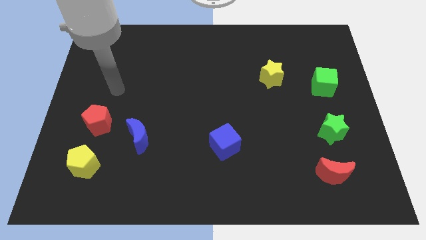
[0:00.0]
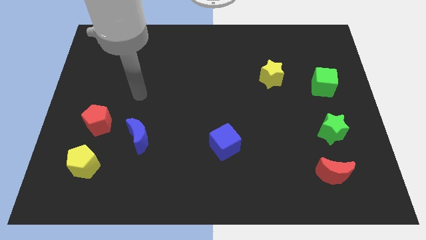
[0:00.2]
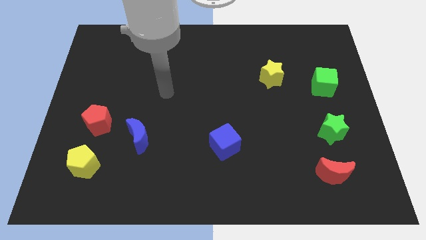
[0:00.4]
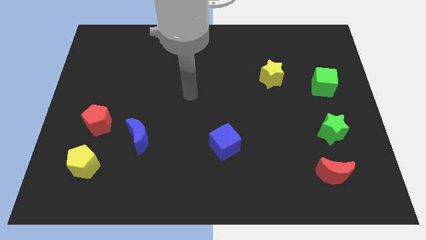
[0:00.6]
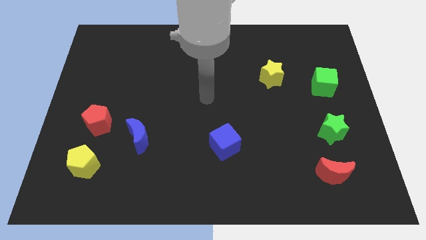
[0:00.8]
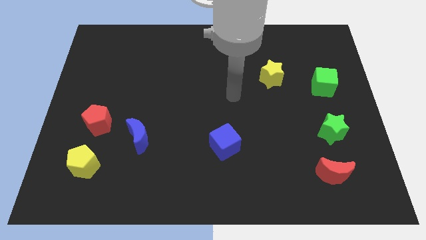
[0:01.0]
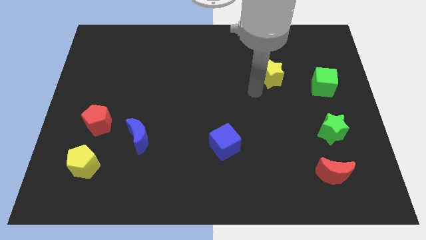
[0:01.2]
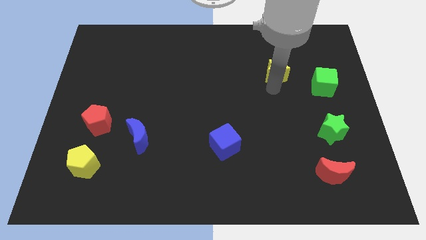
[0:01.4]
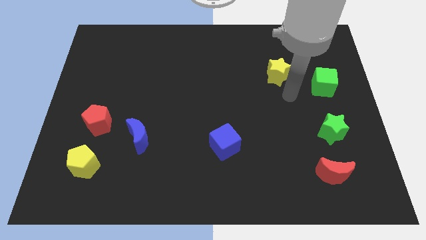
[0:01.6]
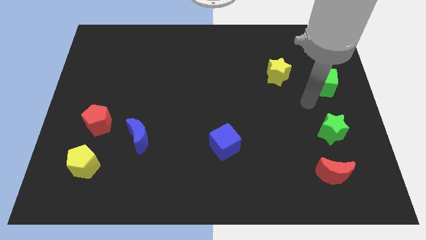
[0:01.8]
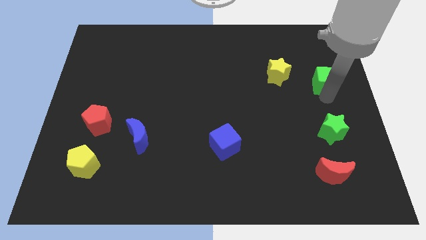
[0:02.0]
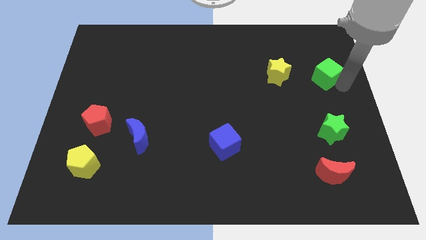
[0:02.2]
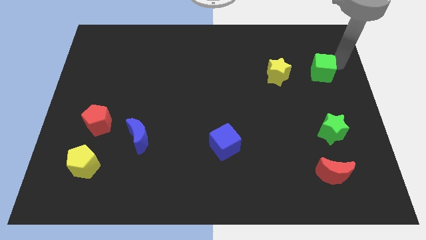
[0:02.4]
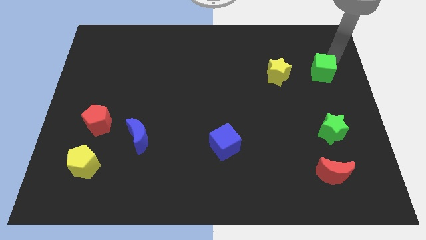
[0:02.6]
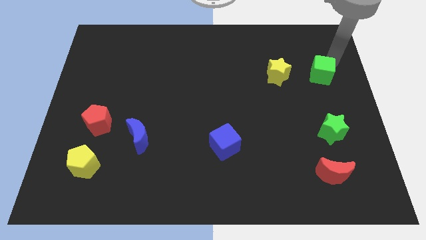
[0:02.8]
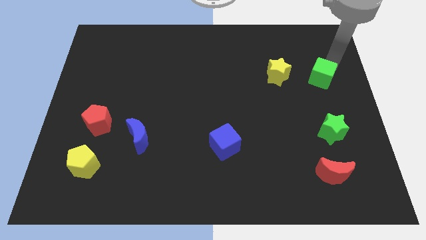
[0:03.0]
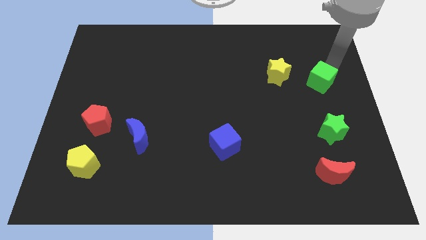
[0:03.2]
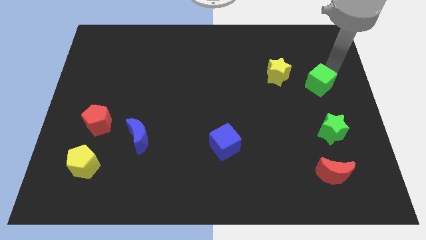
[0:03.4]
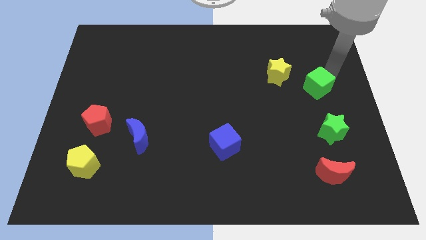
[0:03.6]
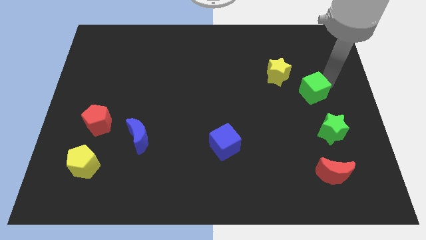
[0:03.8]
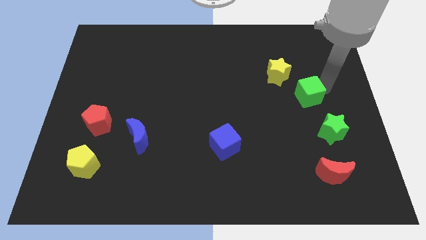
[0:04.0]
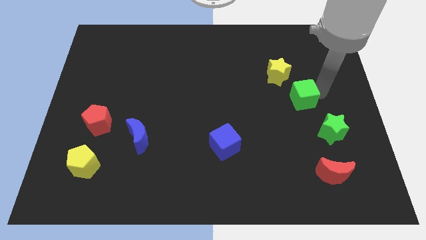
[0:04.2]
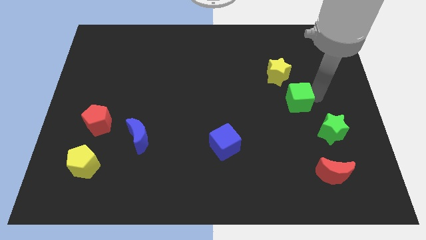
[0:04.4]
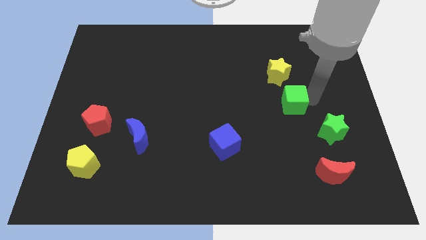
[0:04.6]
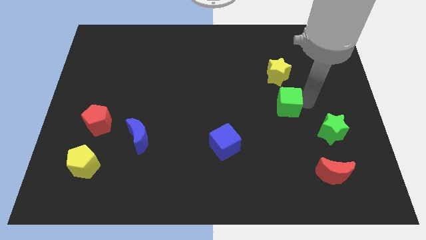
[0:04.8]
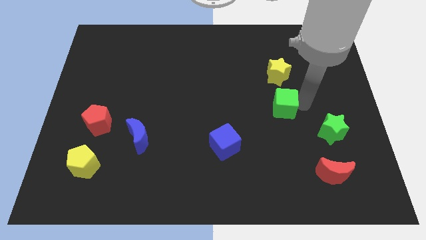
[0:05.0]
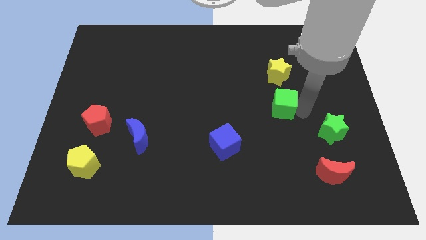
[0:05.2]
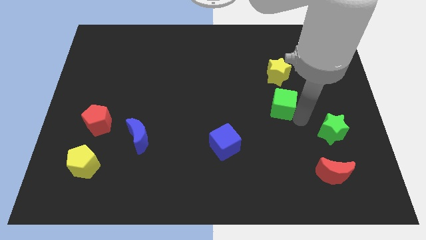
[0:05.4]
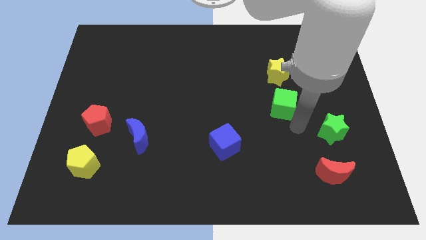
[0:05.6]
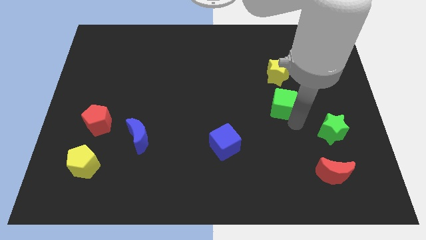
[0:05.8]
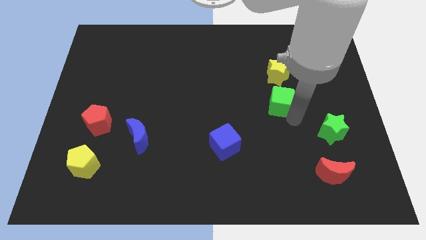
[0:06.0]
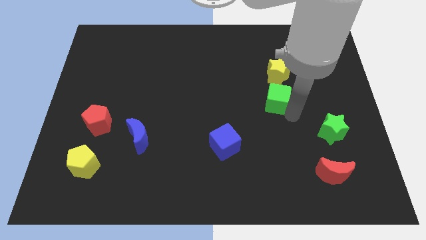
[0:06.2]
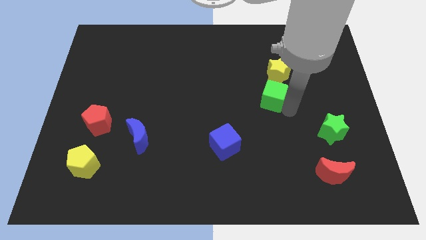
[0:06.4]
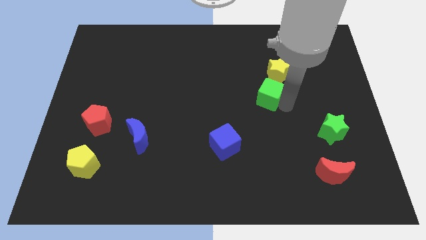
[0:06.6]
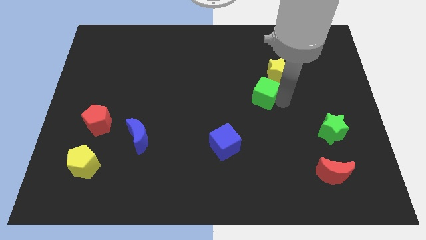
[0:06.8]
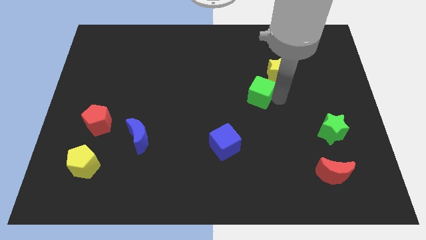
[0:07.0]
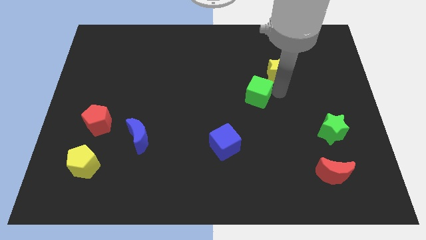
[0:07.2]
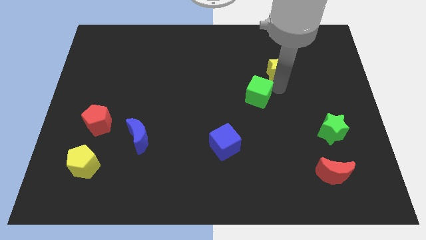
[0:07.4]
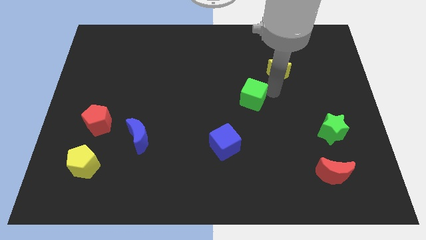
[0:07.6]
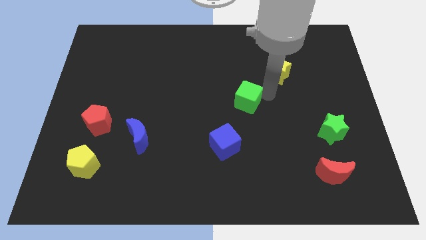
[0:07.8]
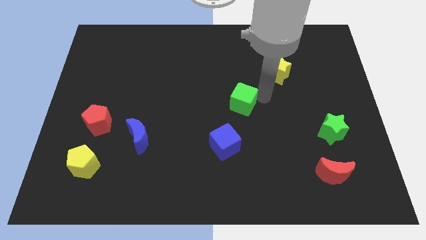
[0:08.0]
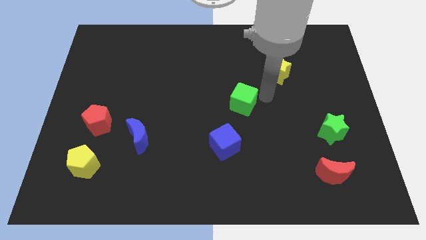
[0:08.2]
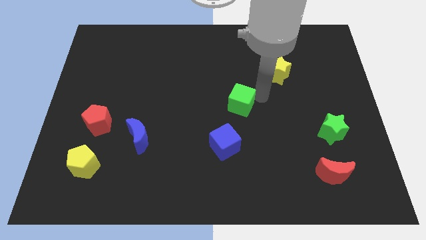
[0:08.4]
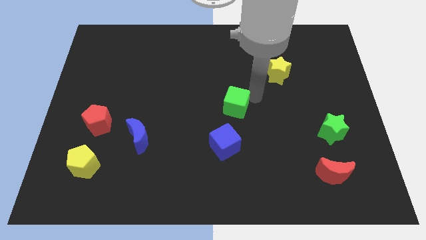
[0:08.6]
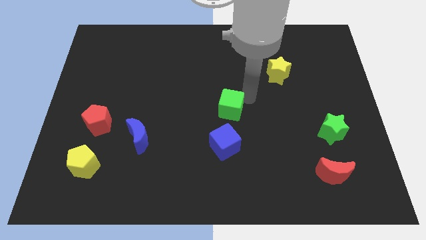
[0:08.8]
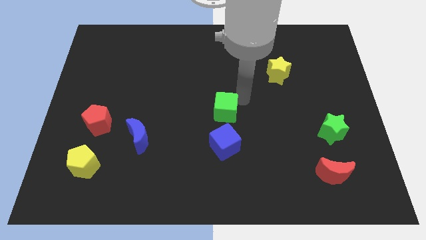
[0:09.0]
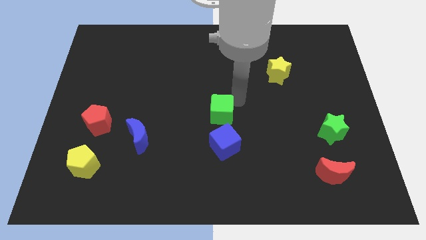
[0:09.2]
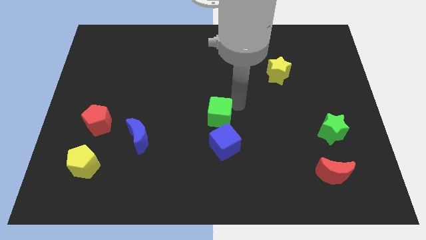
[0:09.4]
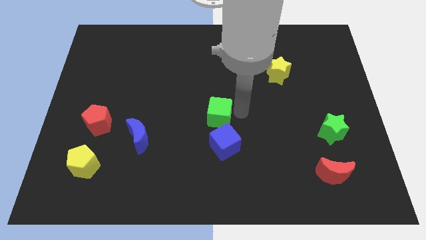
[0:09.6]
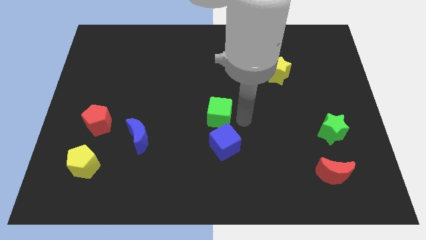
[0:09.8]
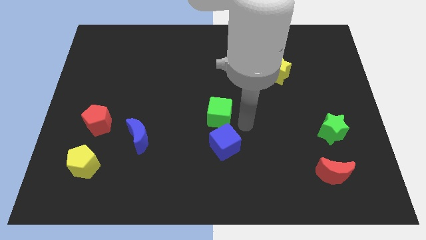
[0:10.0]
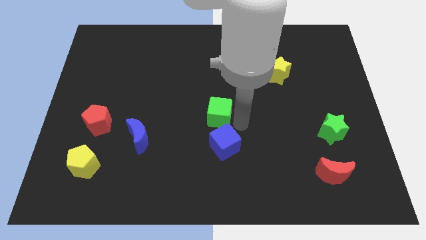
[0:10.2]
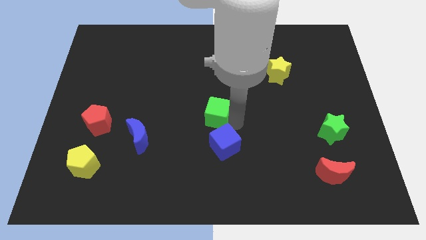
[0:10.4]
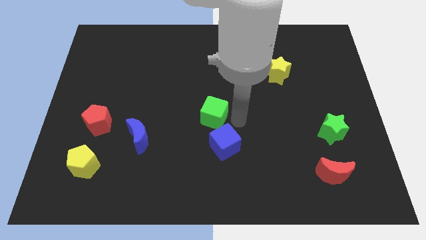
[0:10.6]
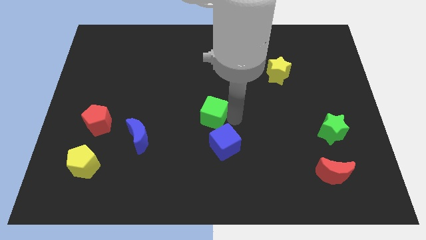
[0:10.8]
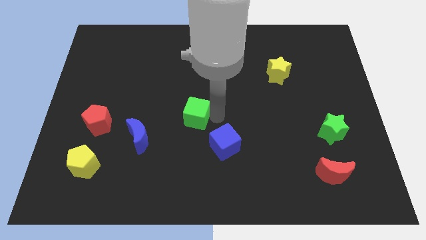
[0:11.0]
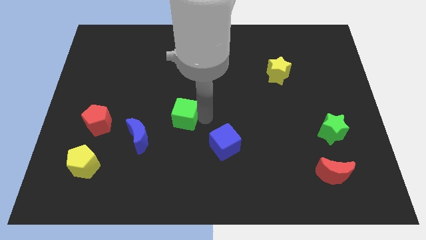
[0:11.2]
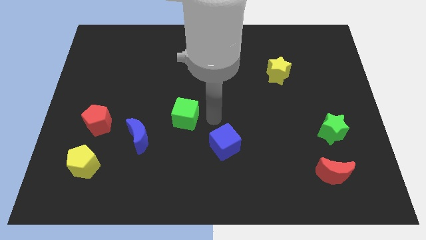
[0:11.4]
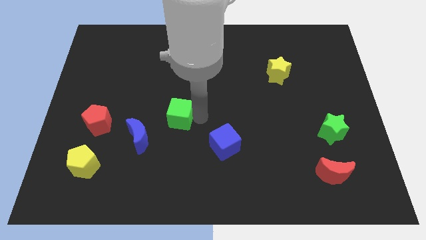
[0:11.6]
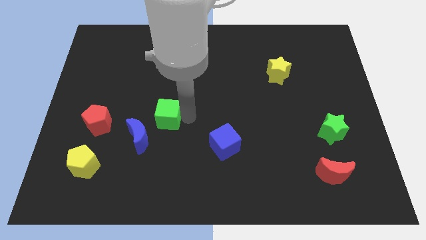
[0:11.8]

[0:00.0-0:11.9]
move the green cube to the right side of the red pentagon
